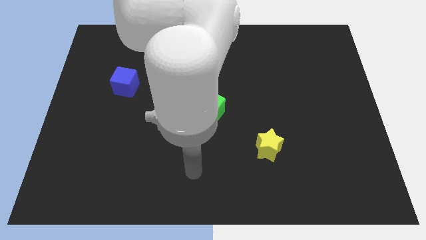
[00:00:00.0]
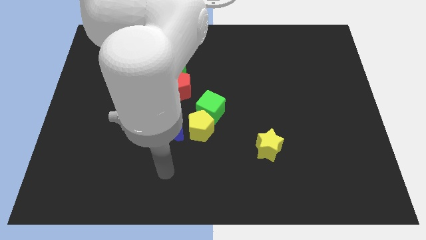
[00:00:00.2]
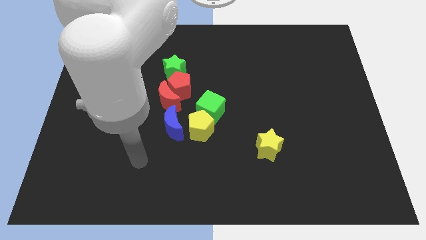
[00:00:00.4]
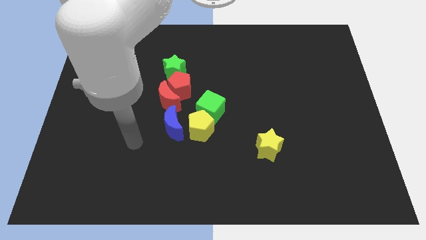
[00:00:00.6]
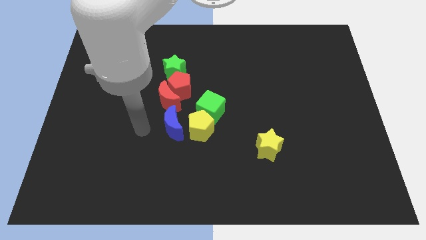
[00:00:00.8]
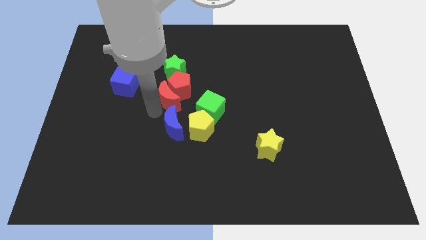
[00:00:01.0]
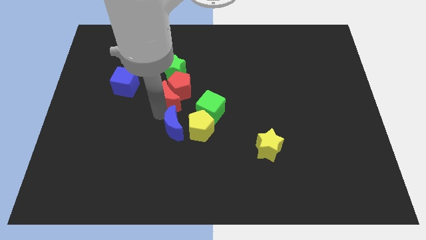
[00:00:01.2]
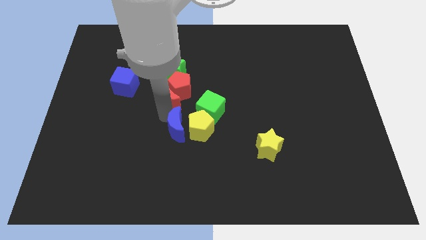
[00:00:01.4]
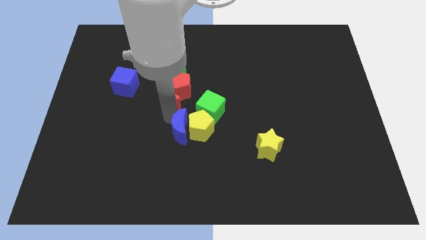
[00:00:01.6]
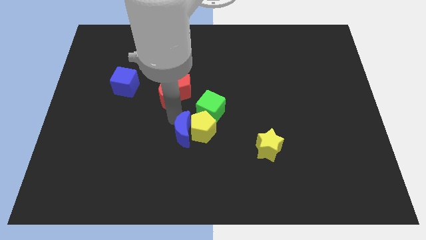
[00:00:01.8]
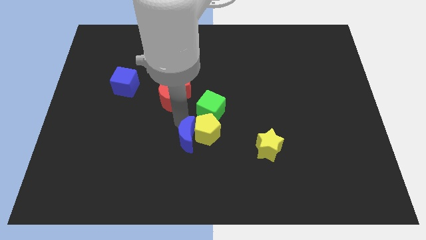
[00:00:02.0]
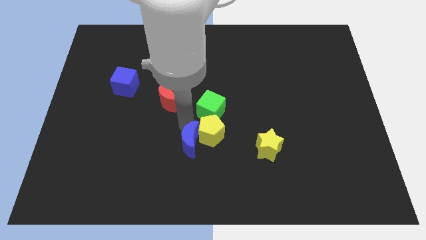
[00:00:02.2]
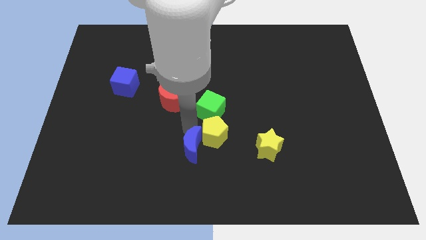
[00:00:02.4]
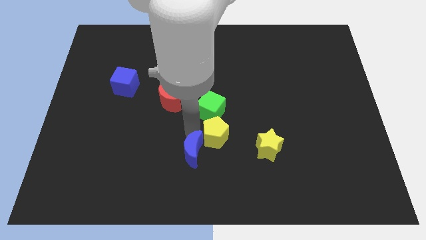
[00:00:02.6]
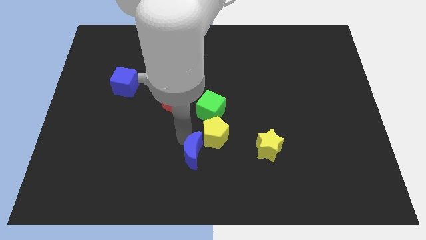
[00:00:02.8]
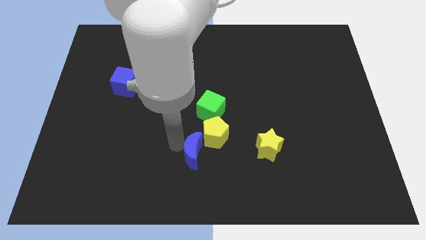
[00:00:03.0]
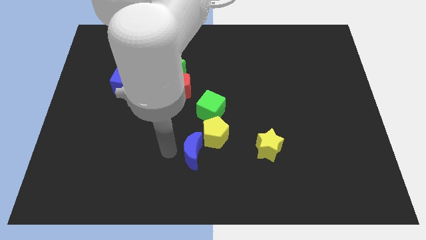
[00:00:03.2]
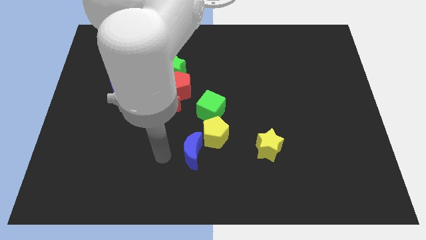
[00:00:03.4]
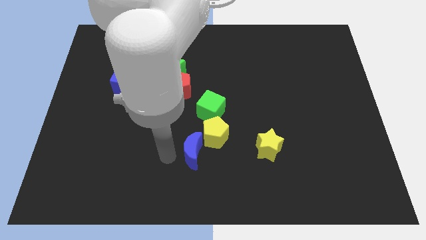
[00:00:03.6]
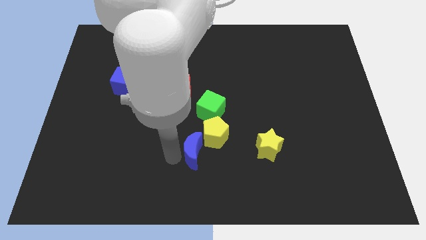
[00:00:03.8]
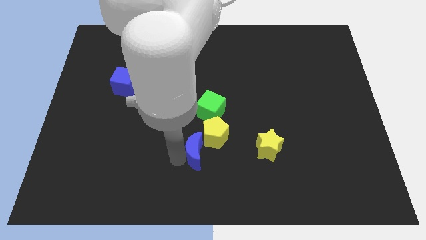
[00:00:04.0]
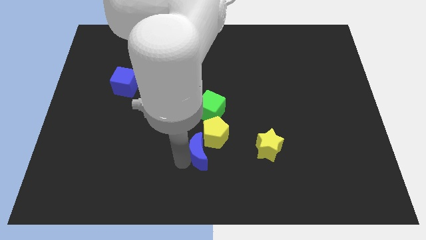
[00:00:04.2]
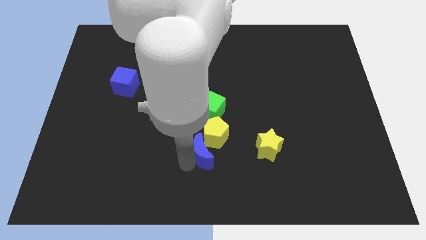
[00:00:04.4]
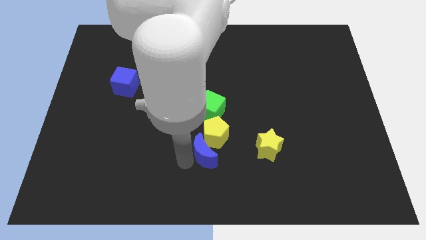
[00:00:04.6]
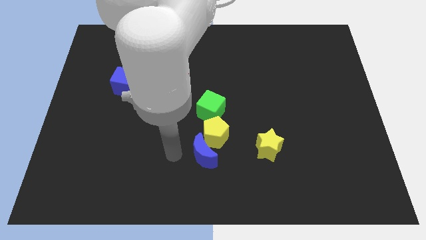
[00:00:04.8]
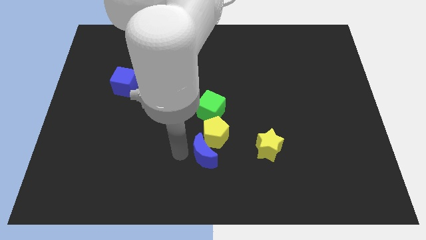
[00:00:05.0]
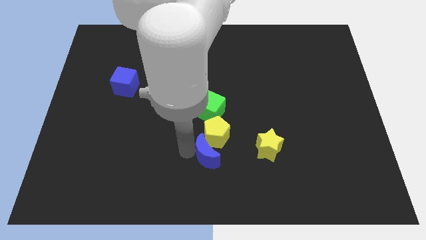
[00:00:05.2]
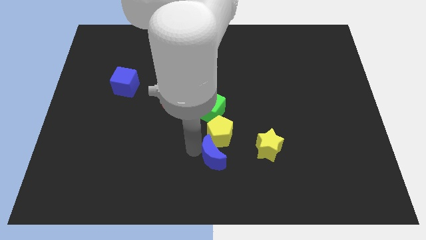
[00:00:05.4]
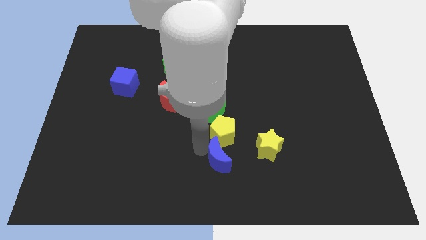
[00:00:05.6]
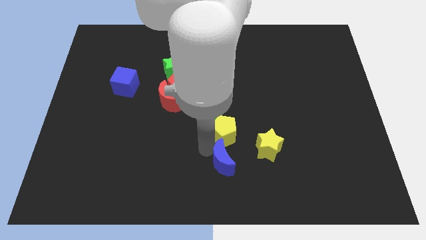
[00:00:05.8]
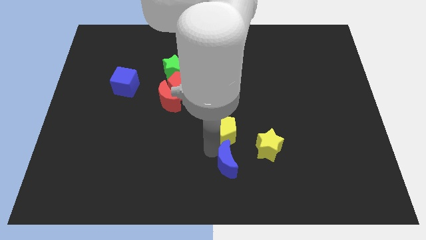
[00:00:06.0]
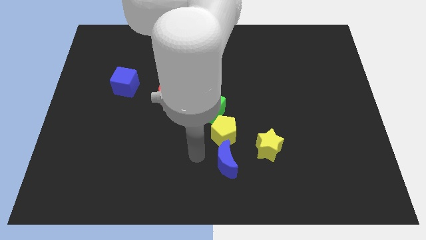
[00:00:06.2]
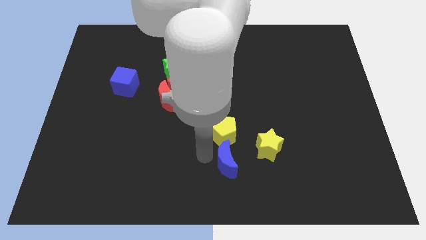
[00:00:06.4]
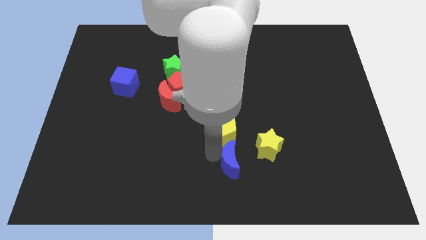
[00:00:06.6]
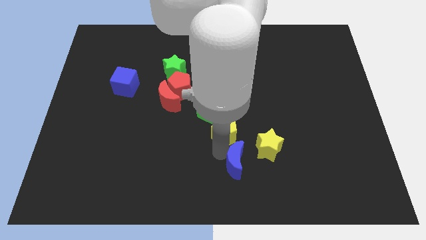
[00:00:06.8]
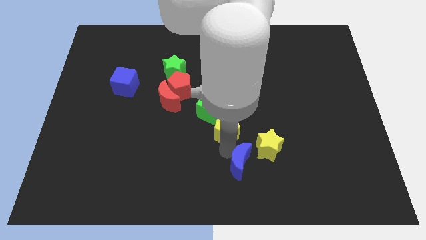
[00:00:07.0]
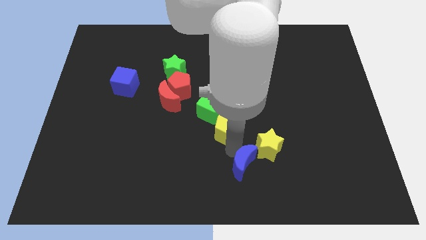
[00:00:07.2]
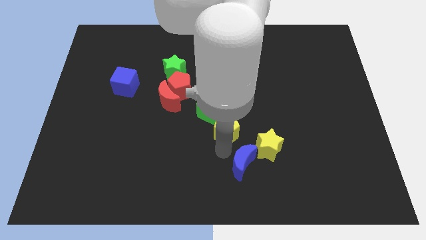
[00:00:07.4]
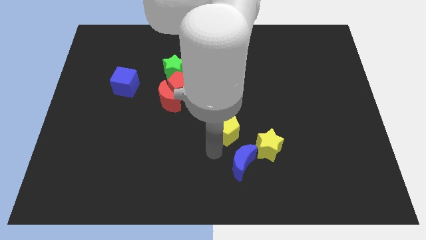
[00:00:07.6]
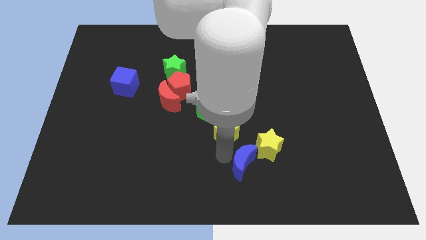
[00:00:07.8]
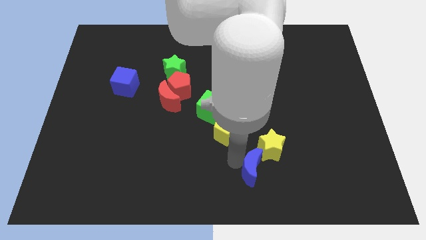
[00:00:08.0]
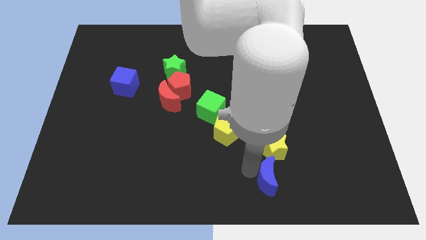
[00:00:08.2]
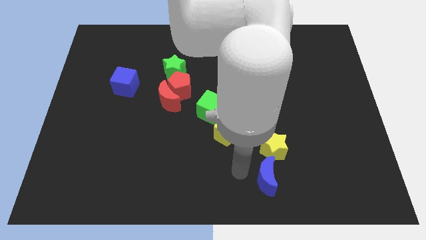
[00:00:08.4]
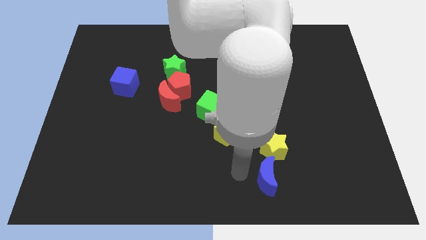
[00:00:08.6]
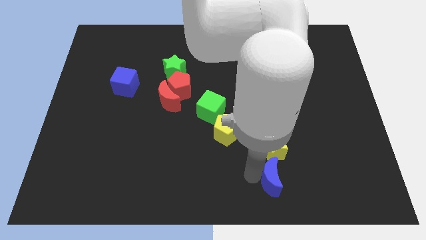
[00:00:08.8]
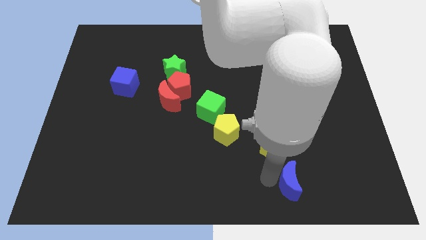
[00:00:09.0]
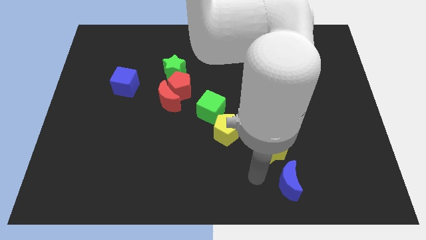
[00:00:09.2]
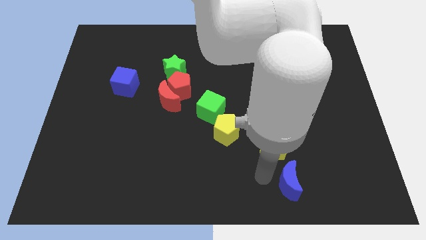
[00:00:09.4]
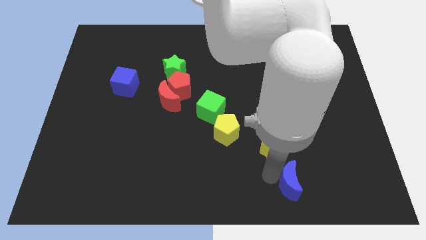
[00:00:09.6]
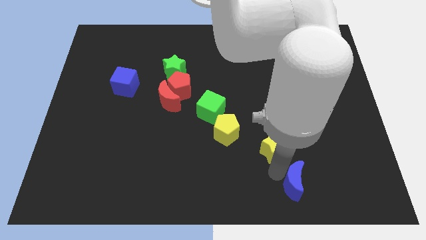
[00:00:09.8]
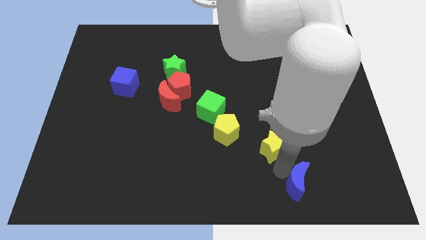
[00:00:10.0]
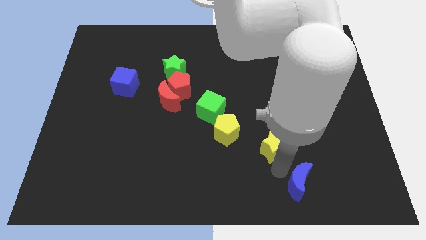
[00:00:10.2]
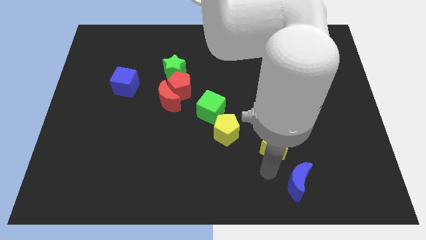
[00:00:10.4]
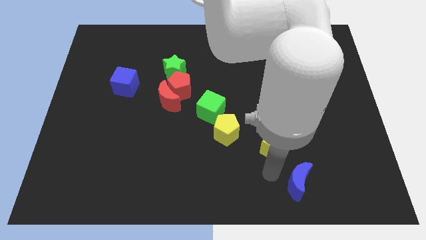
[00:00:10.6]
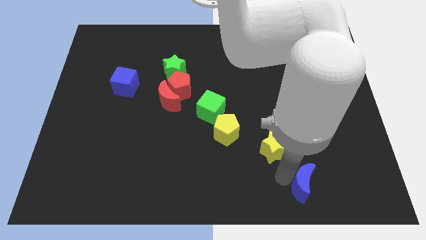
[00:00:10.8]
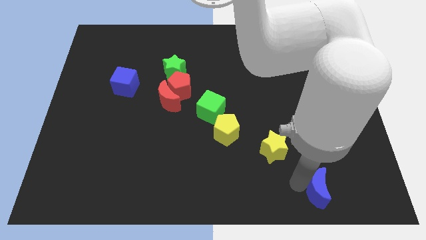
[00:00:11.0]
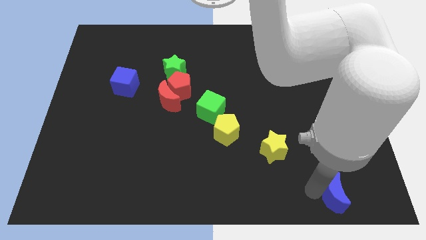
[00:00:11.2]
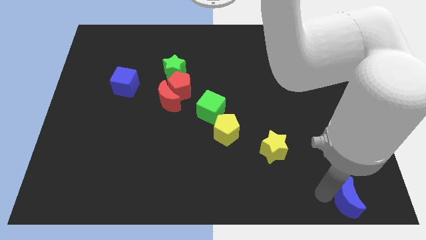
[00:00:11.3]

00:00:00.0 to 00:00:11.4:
move the blue moon to the lower right corner
